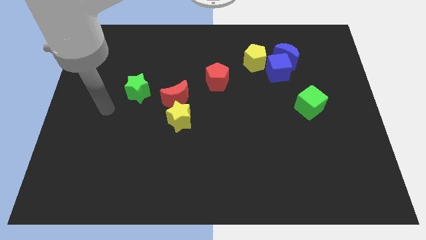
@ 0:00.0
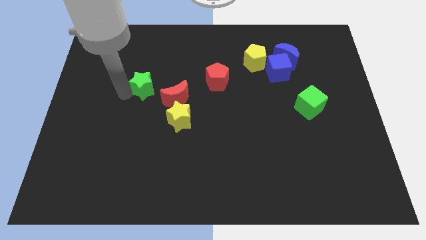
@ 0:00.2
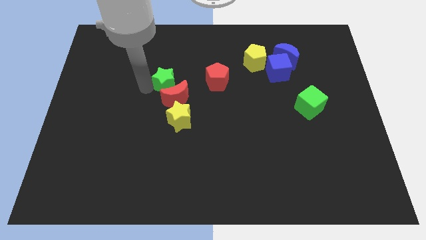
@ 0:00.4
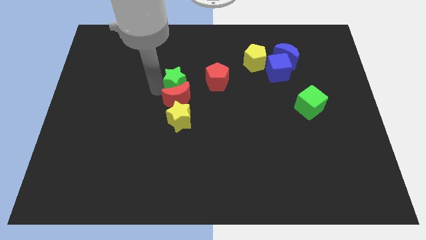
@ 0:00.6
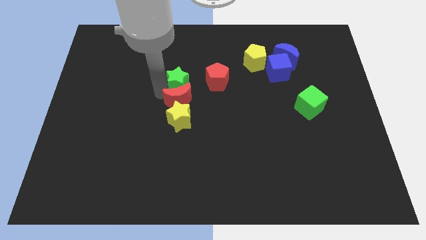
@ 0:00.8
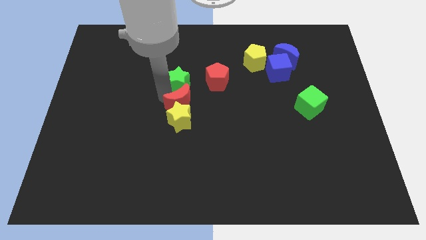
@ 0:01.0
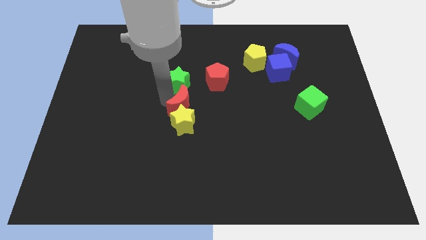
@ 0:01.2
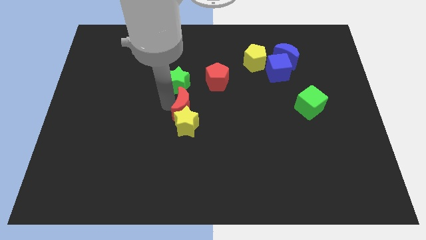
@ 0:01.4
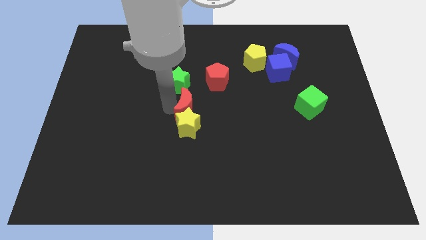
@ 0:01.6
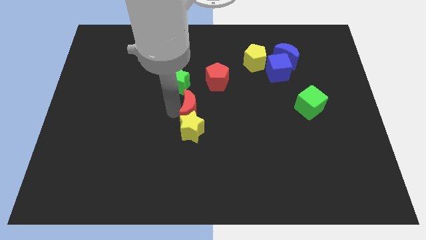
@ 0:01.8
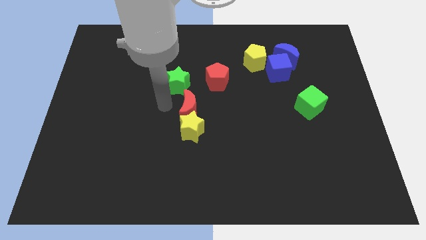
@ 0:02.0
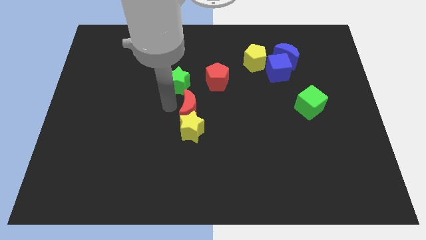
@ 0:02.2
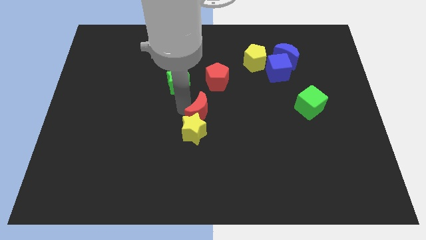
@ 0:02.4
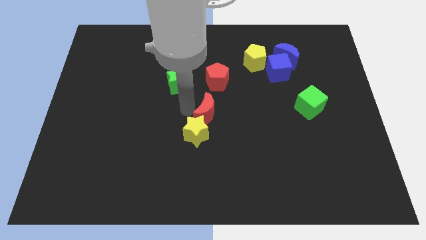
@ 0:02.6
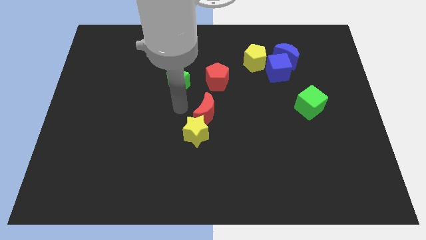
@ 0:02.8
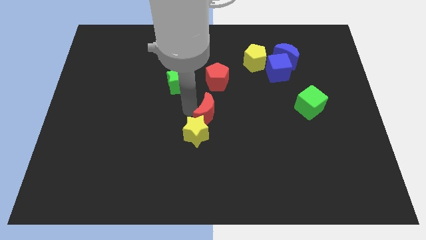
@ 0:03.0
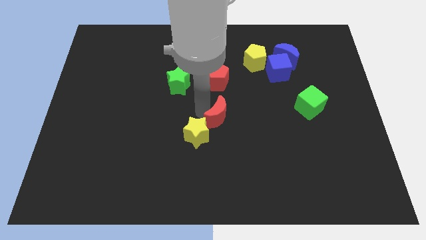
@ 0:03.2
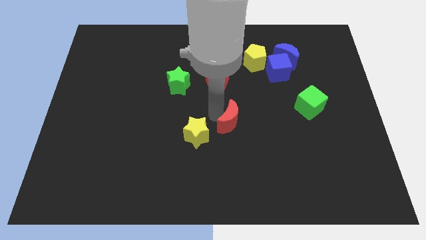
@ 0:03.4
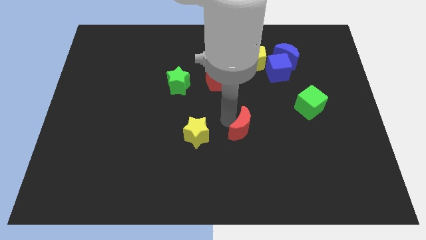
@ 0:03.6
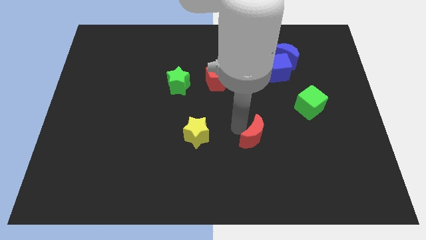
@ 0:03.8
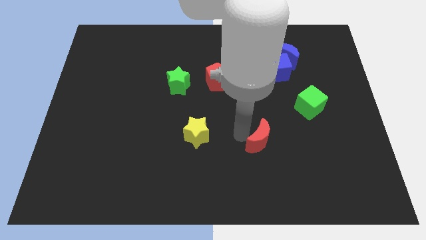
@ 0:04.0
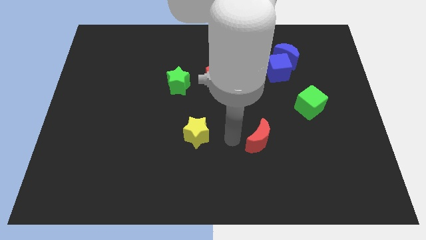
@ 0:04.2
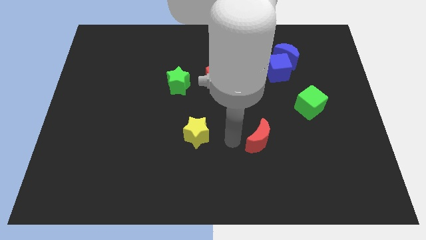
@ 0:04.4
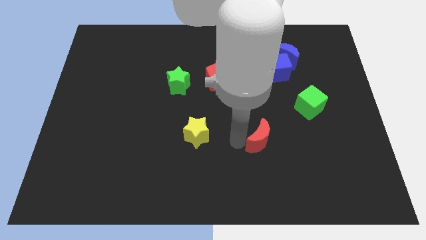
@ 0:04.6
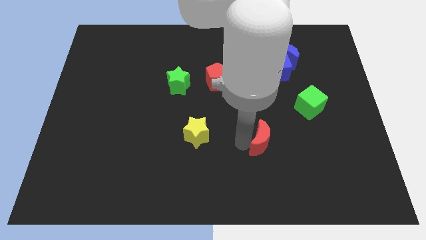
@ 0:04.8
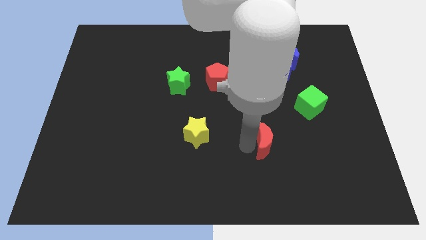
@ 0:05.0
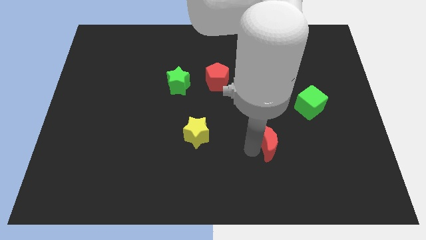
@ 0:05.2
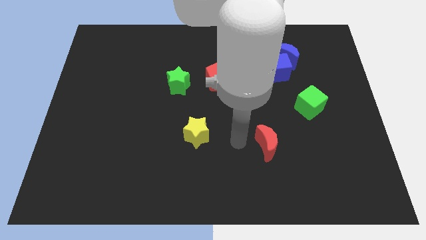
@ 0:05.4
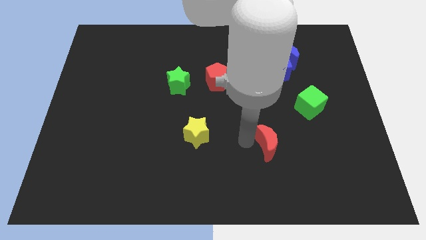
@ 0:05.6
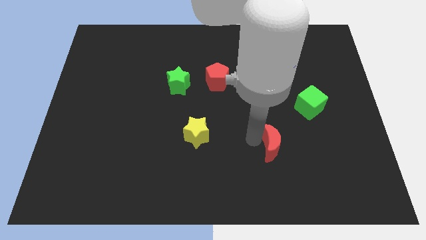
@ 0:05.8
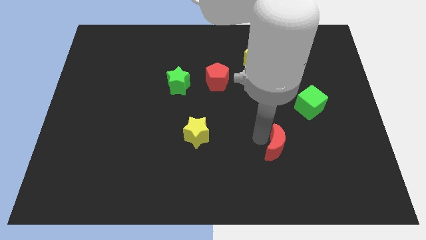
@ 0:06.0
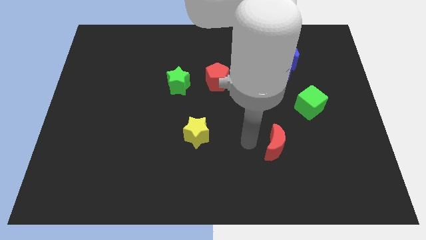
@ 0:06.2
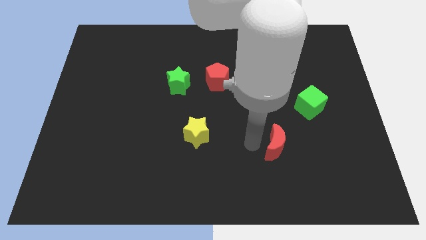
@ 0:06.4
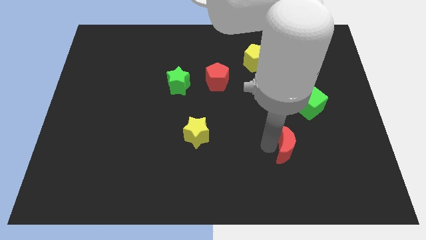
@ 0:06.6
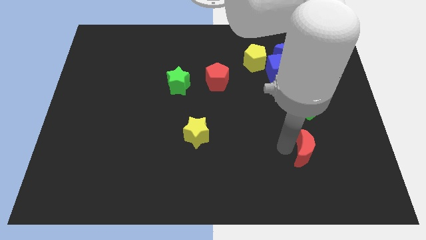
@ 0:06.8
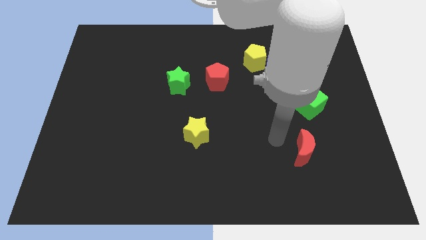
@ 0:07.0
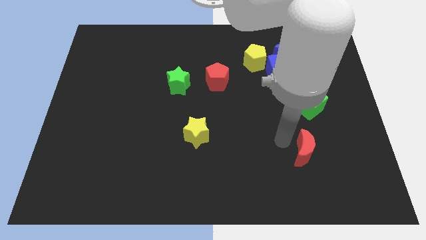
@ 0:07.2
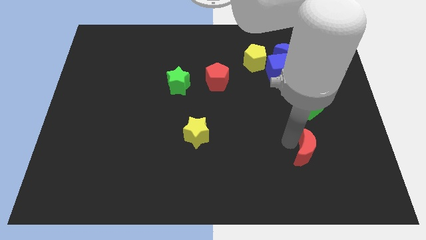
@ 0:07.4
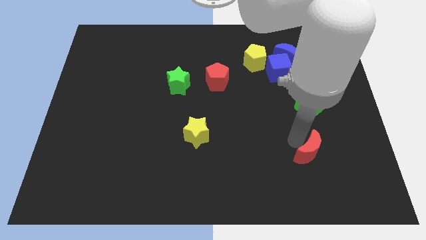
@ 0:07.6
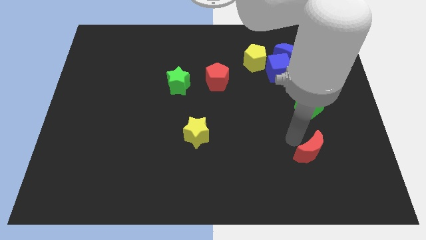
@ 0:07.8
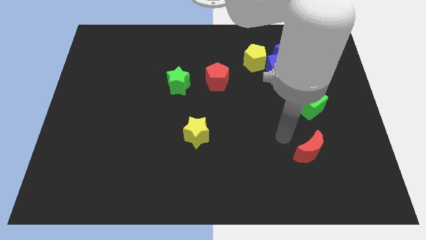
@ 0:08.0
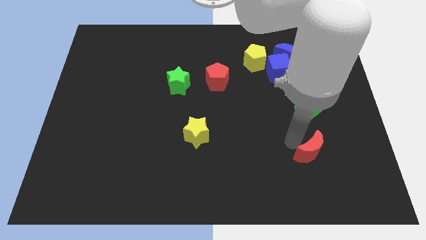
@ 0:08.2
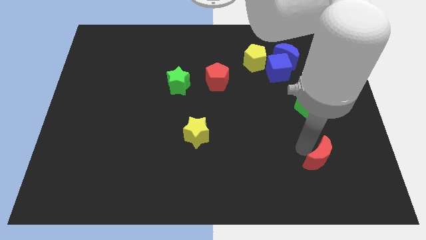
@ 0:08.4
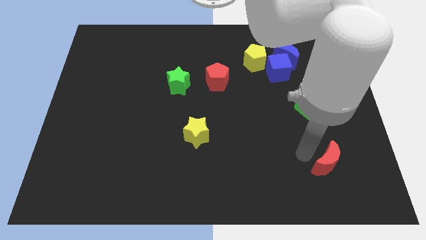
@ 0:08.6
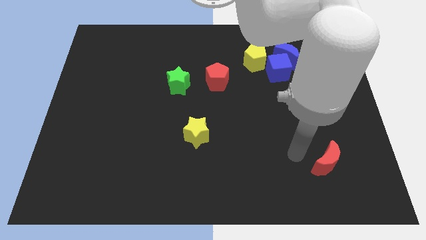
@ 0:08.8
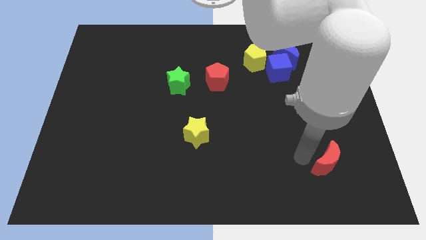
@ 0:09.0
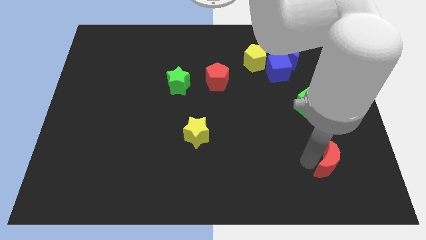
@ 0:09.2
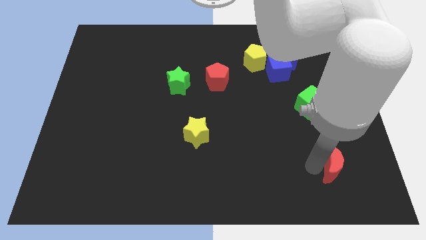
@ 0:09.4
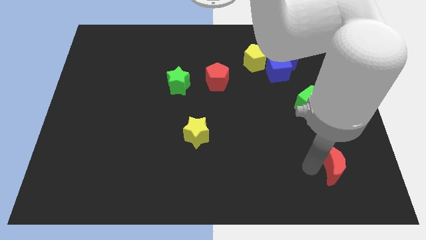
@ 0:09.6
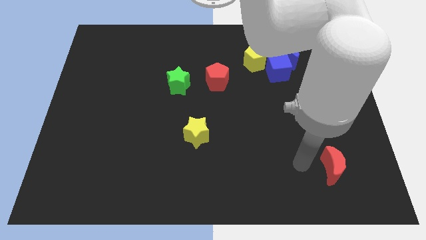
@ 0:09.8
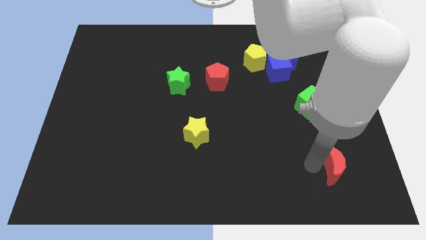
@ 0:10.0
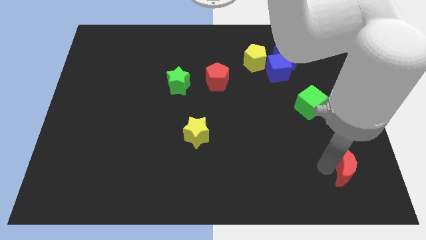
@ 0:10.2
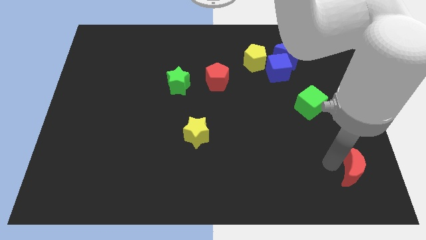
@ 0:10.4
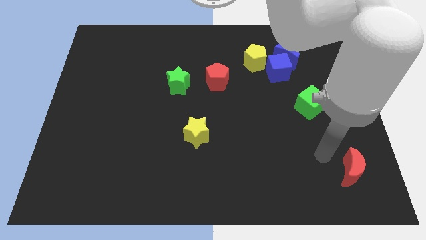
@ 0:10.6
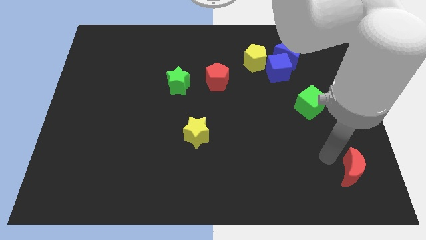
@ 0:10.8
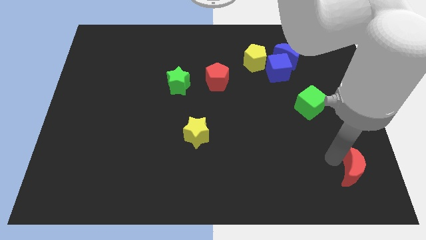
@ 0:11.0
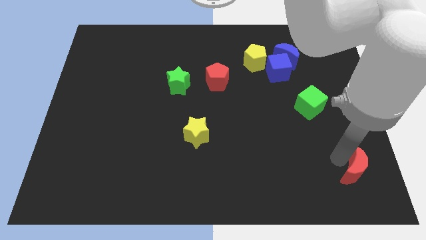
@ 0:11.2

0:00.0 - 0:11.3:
put the red moon to the bottom right corner

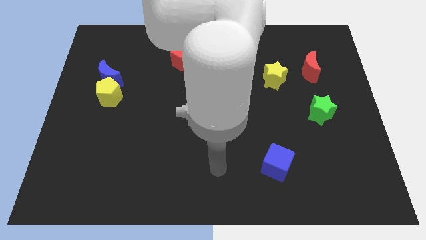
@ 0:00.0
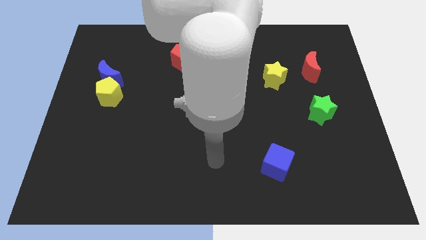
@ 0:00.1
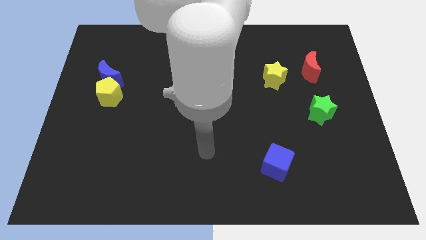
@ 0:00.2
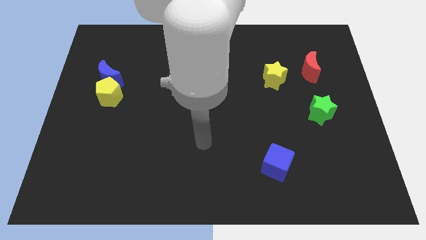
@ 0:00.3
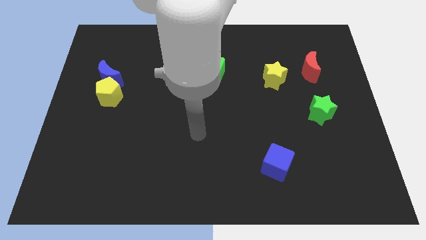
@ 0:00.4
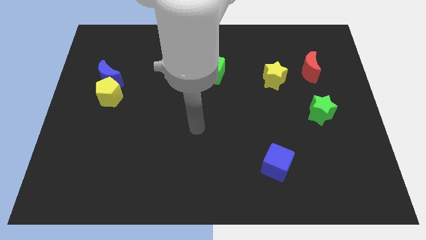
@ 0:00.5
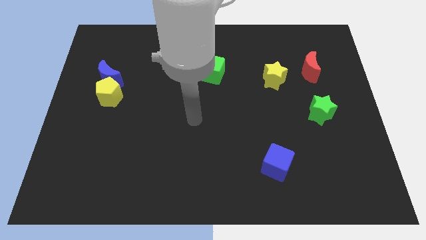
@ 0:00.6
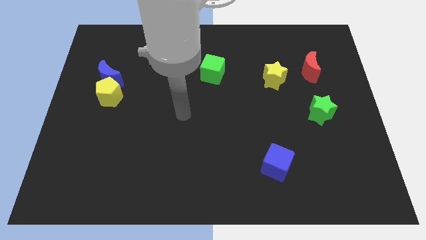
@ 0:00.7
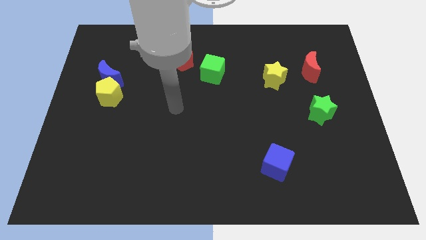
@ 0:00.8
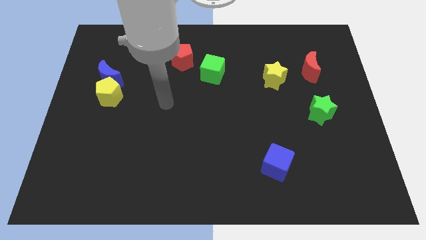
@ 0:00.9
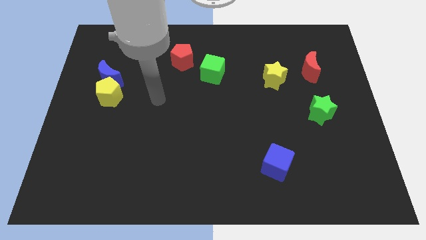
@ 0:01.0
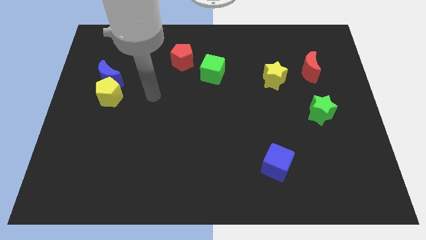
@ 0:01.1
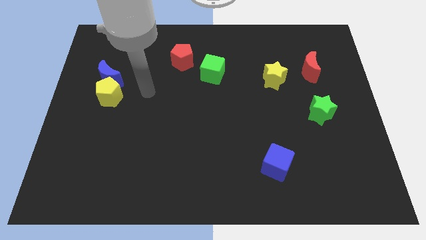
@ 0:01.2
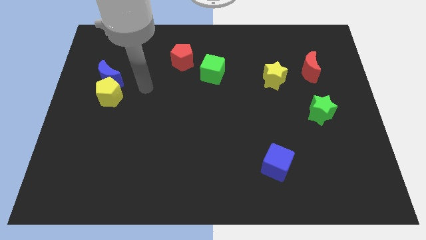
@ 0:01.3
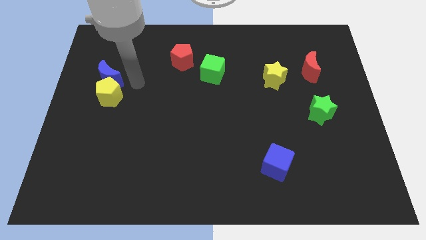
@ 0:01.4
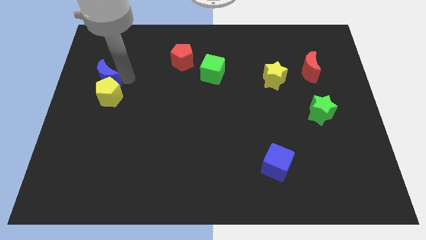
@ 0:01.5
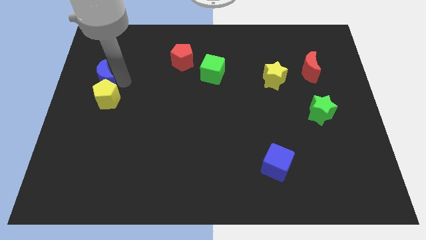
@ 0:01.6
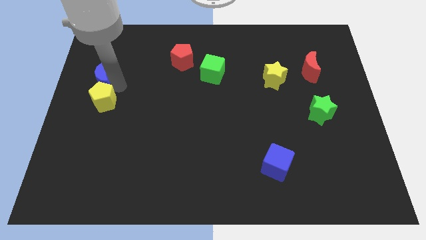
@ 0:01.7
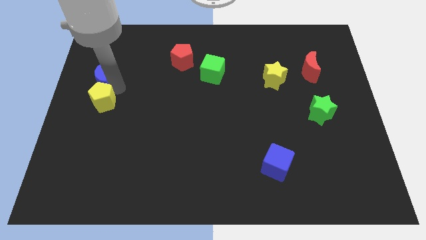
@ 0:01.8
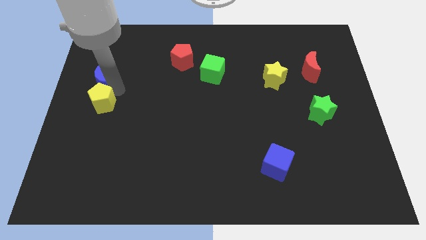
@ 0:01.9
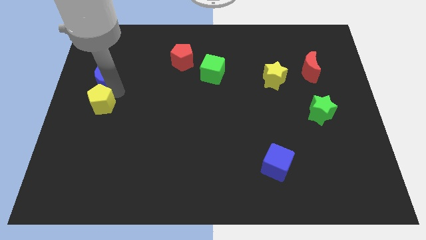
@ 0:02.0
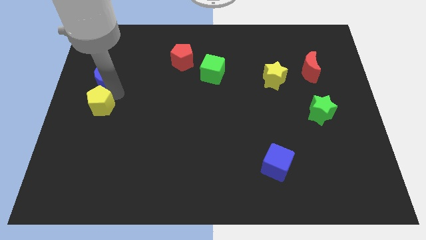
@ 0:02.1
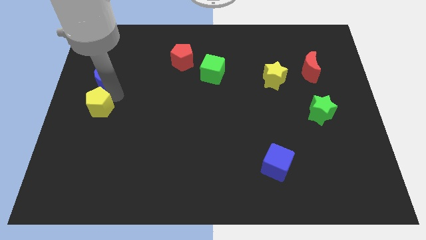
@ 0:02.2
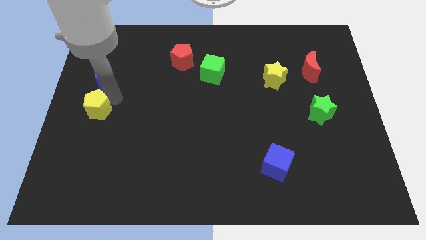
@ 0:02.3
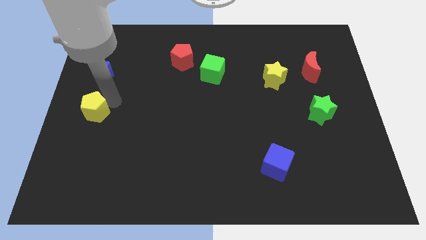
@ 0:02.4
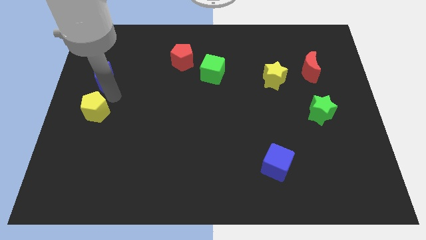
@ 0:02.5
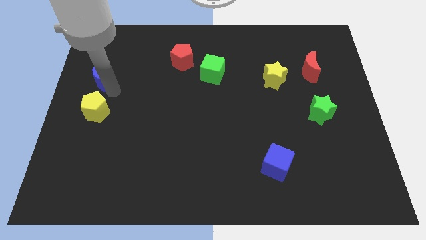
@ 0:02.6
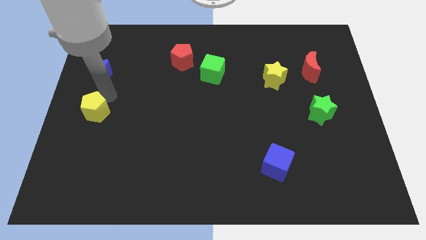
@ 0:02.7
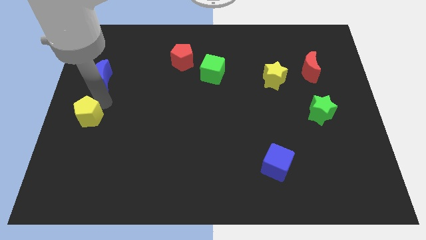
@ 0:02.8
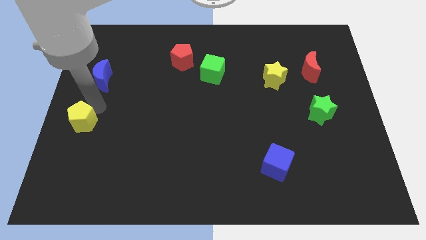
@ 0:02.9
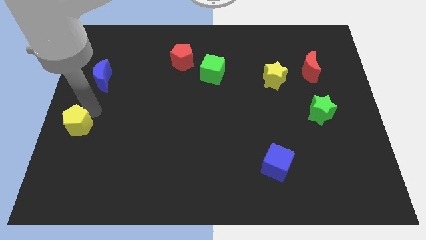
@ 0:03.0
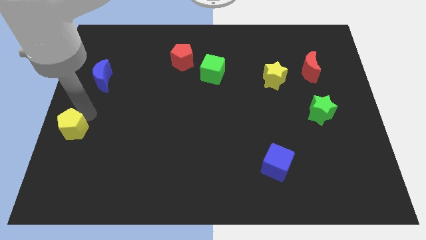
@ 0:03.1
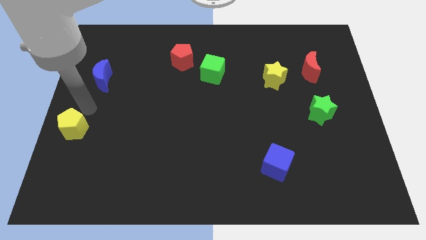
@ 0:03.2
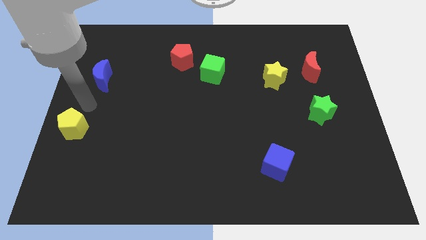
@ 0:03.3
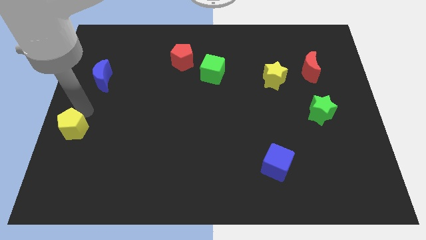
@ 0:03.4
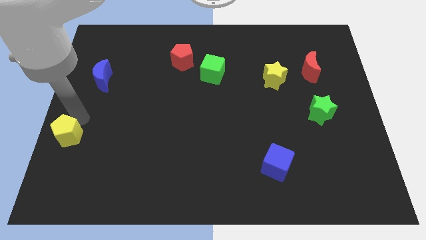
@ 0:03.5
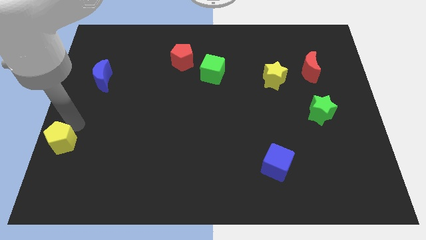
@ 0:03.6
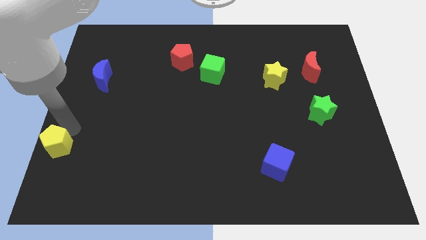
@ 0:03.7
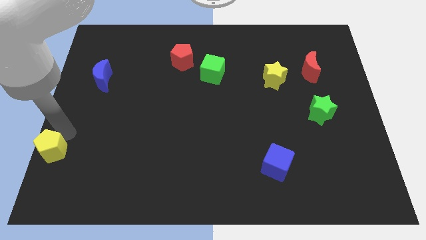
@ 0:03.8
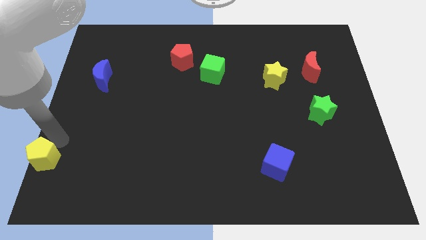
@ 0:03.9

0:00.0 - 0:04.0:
push the yellow pentagon to the bottom left corner
